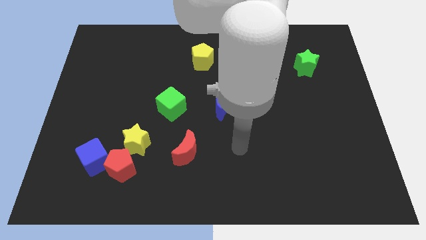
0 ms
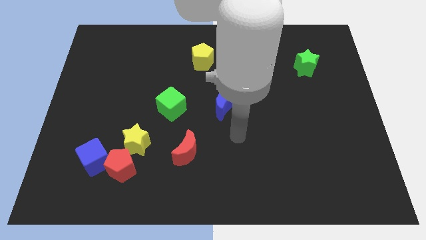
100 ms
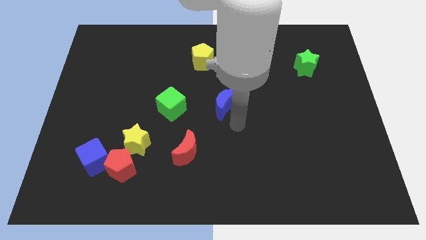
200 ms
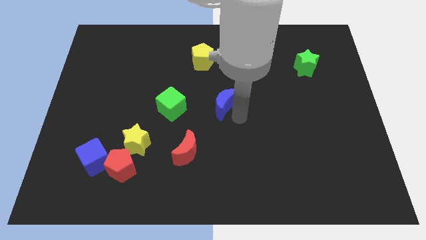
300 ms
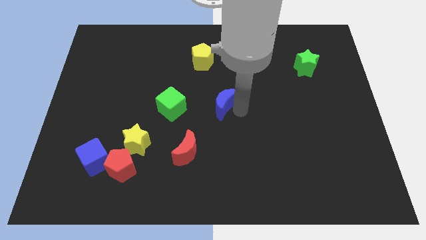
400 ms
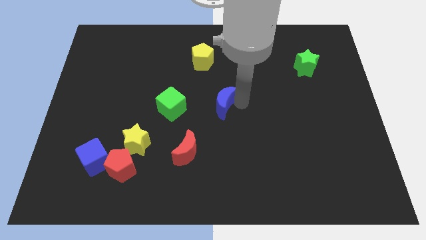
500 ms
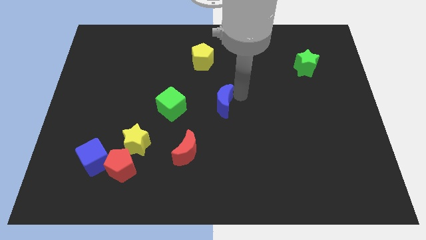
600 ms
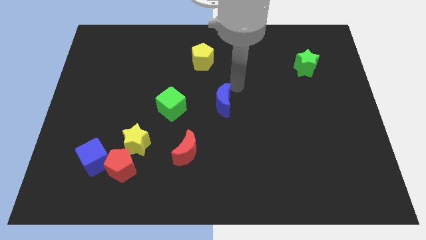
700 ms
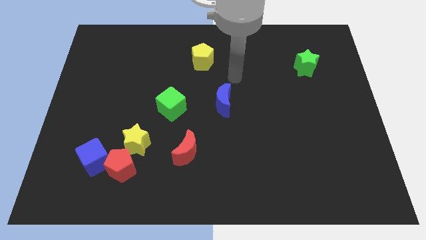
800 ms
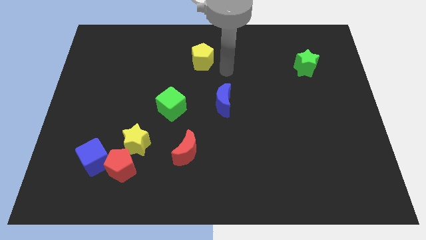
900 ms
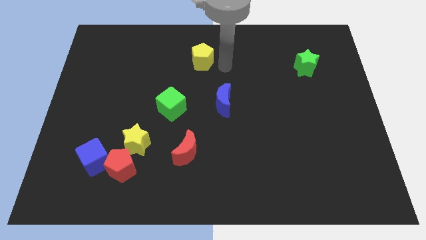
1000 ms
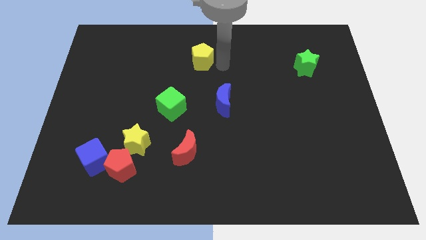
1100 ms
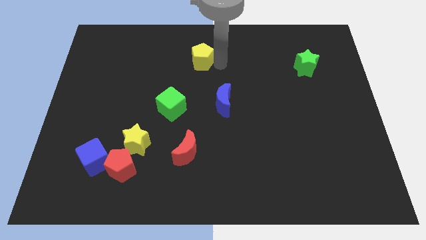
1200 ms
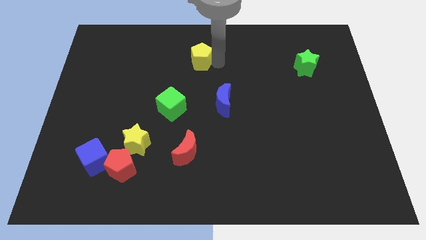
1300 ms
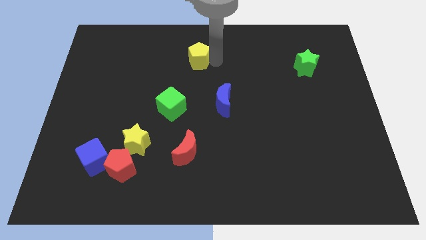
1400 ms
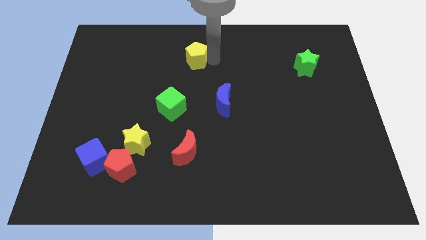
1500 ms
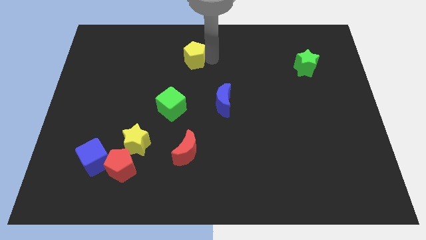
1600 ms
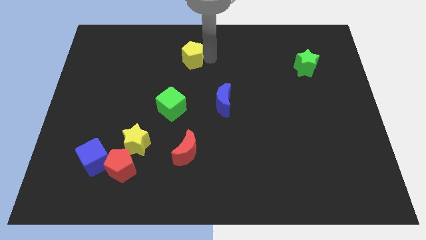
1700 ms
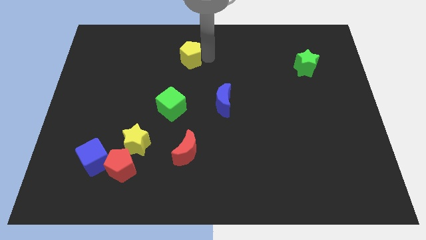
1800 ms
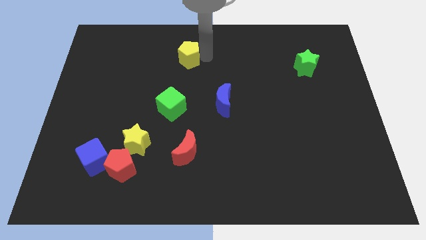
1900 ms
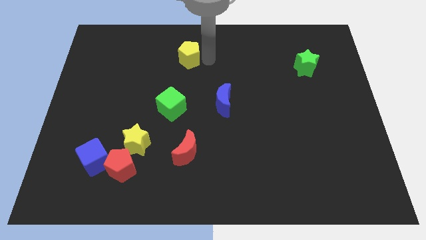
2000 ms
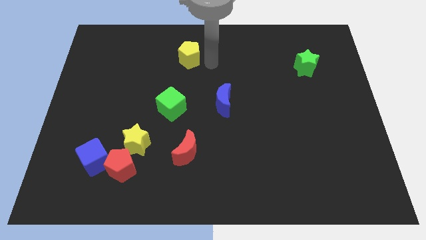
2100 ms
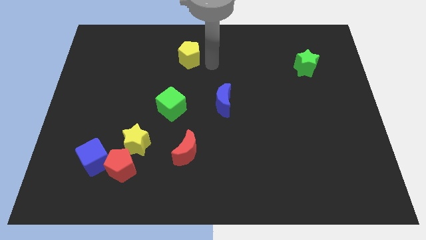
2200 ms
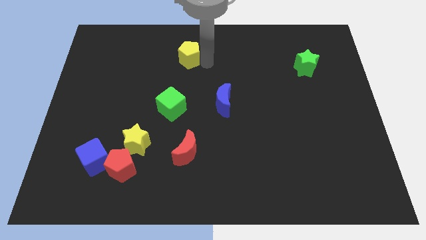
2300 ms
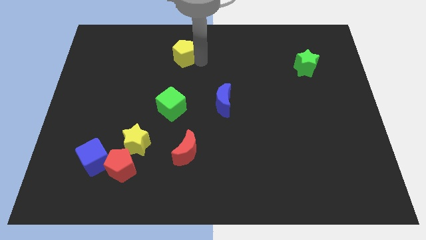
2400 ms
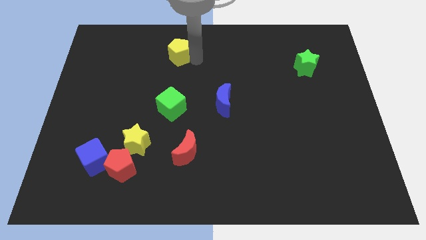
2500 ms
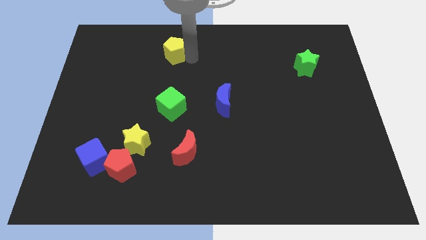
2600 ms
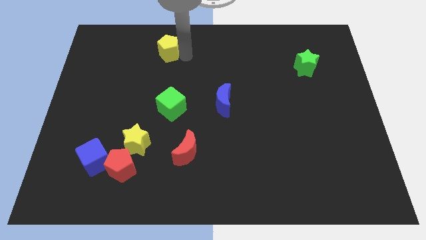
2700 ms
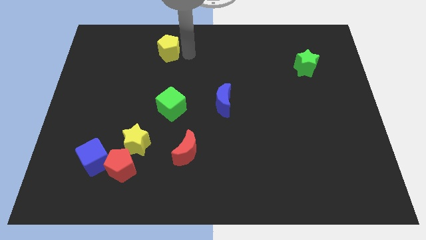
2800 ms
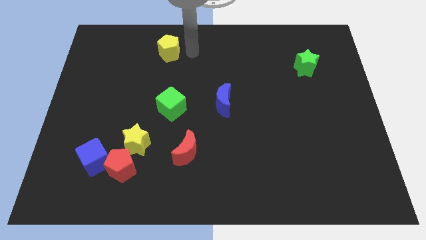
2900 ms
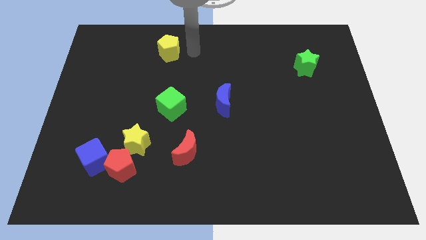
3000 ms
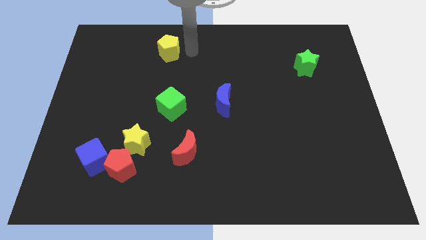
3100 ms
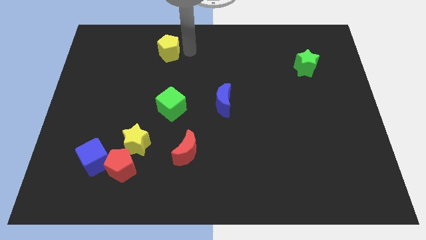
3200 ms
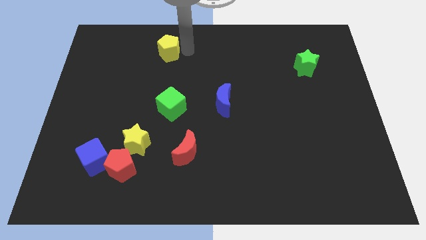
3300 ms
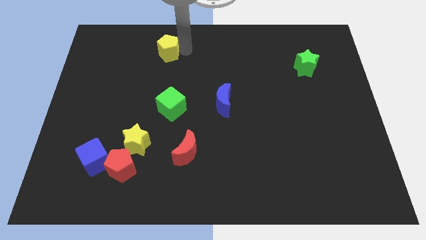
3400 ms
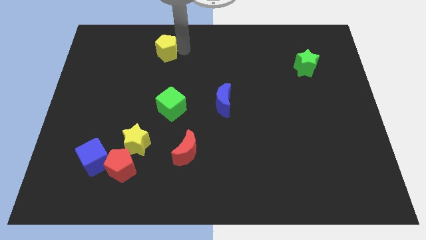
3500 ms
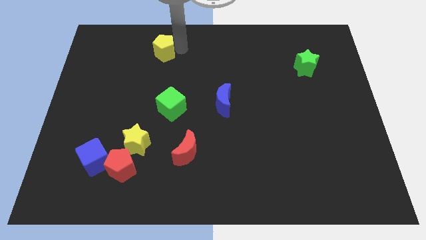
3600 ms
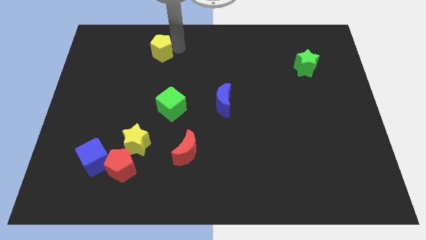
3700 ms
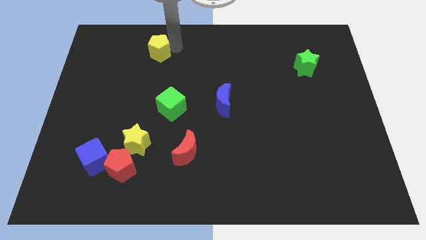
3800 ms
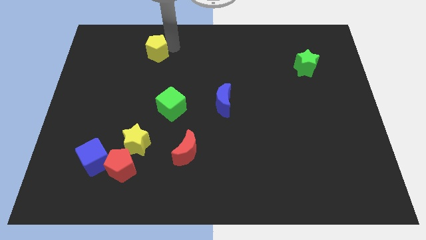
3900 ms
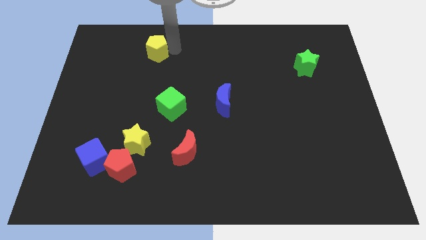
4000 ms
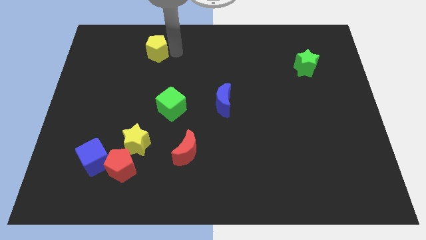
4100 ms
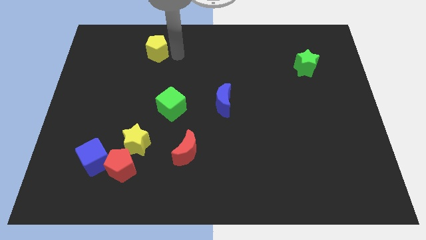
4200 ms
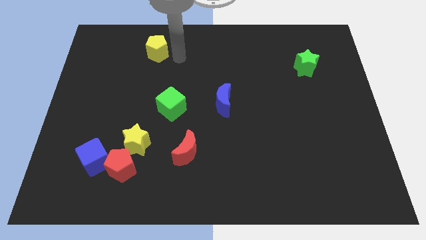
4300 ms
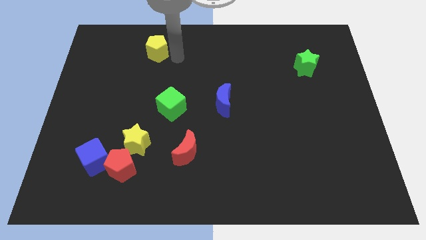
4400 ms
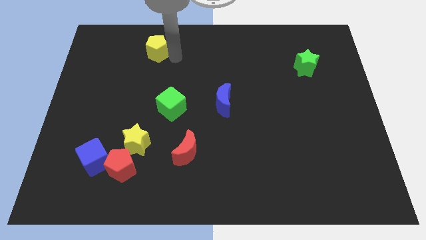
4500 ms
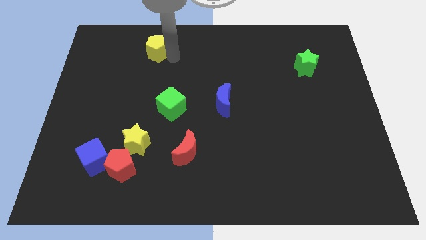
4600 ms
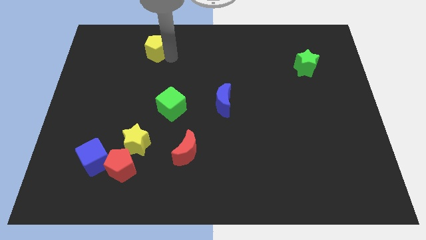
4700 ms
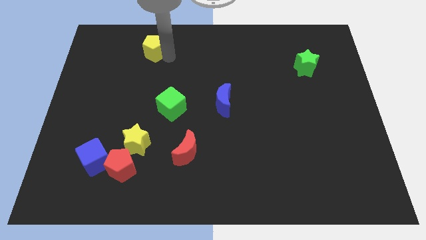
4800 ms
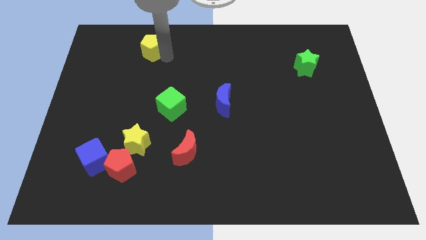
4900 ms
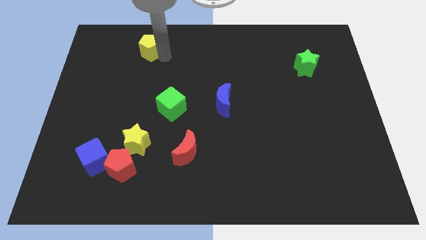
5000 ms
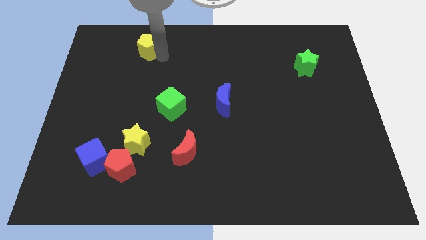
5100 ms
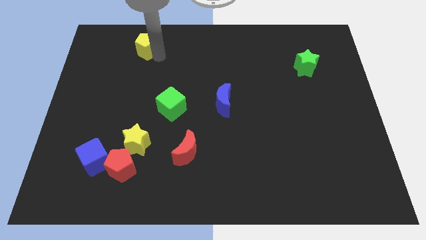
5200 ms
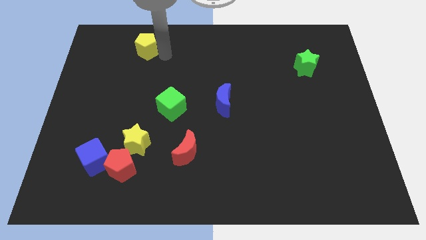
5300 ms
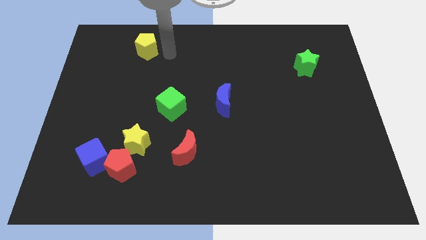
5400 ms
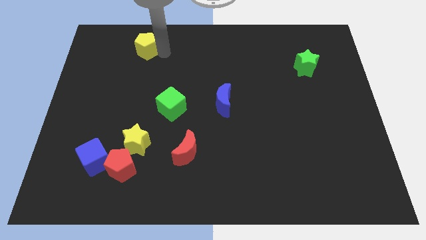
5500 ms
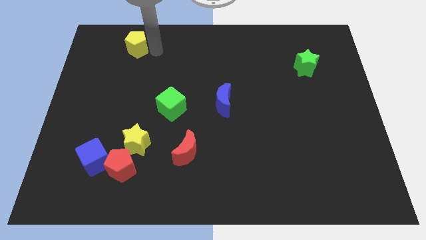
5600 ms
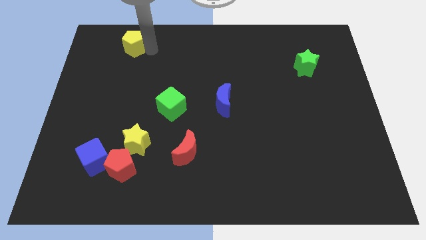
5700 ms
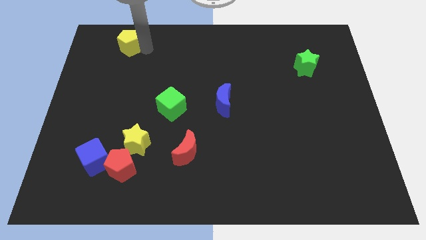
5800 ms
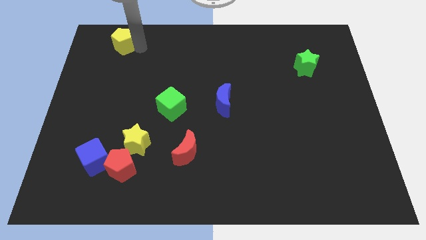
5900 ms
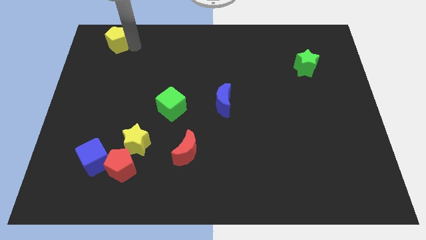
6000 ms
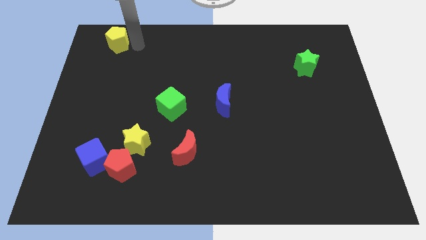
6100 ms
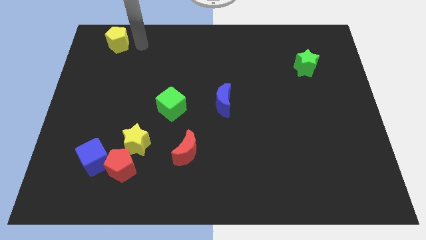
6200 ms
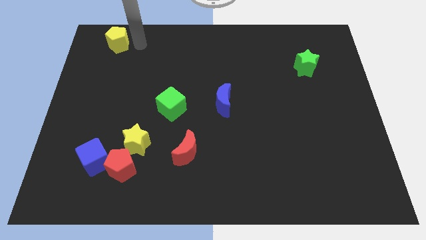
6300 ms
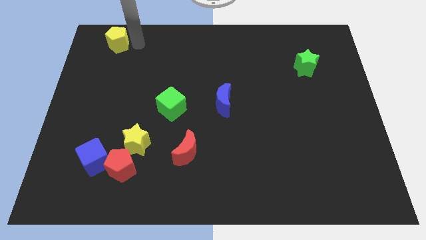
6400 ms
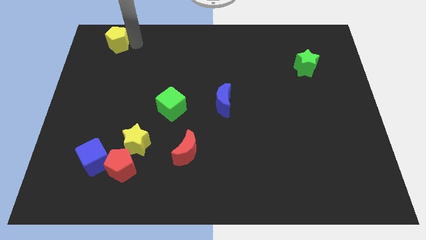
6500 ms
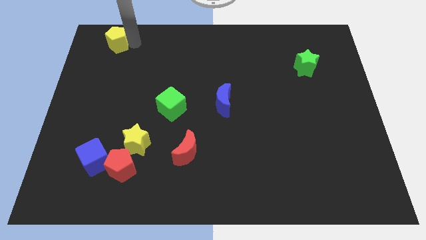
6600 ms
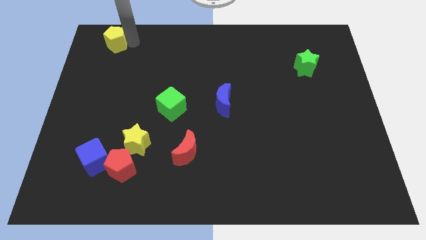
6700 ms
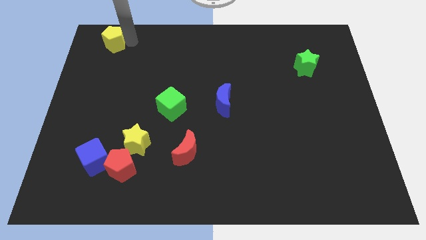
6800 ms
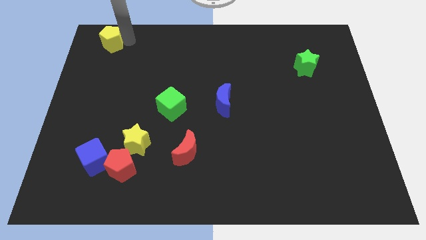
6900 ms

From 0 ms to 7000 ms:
slide the yellow pentagon to the upper left corner

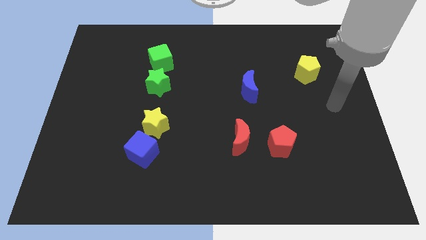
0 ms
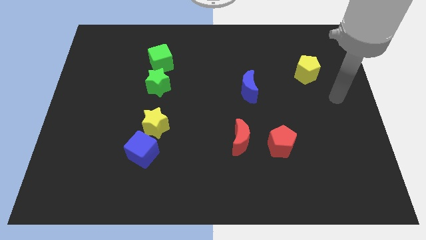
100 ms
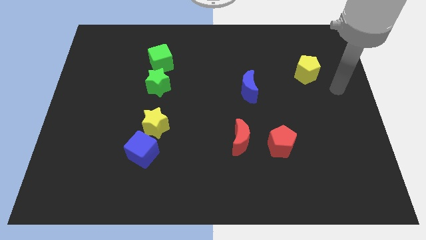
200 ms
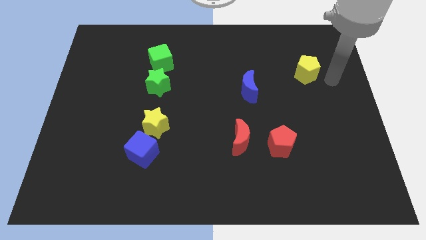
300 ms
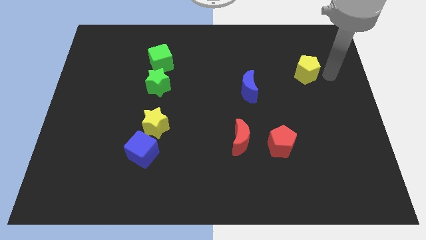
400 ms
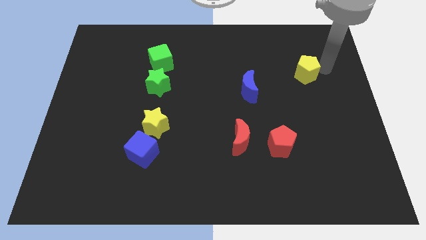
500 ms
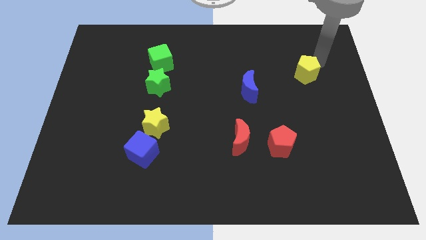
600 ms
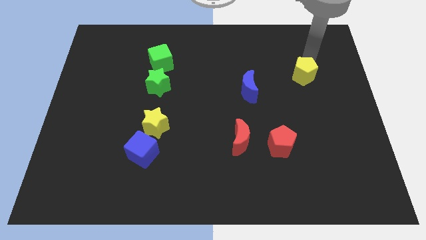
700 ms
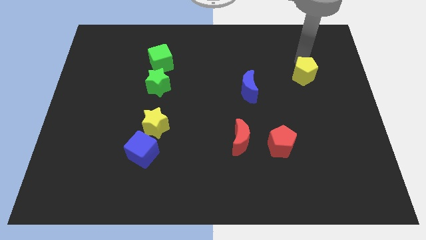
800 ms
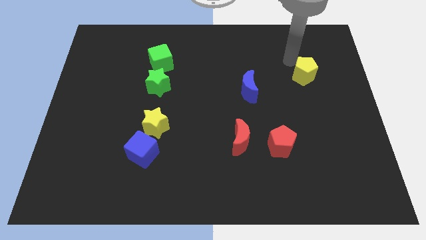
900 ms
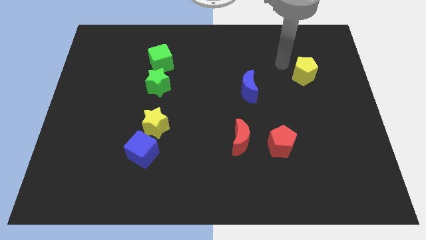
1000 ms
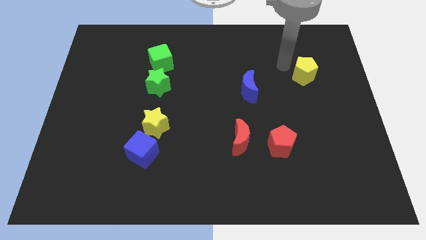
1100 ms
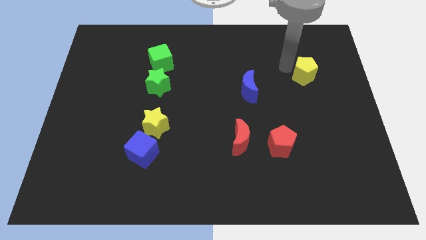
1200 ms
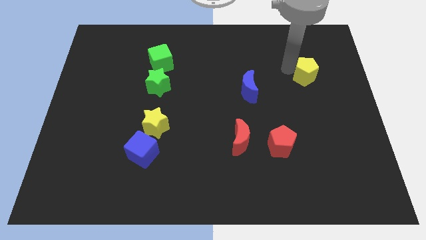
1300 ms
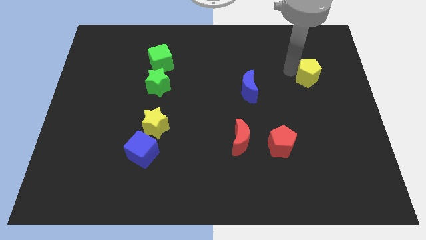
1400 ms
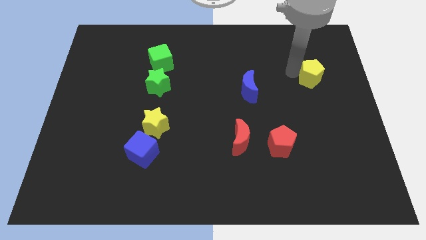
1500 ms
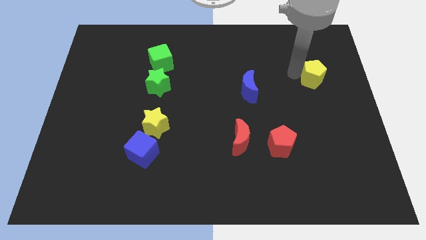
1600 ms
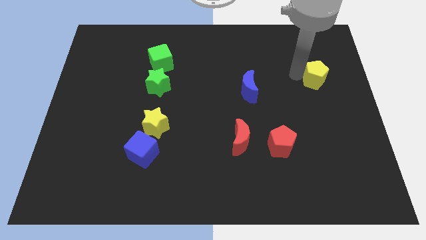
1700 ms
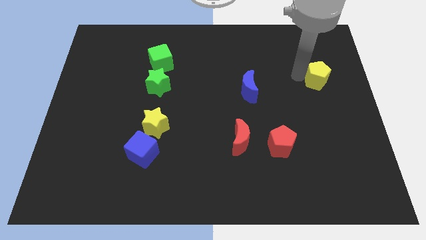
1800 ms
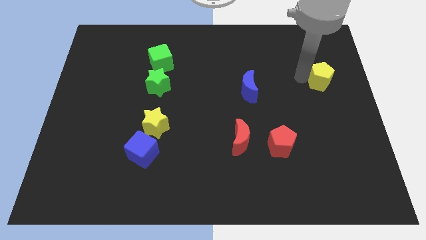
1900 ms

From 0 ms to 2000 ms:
move the yellow pentagon to the center right
